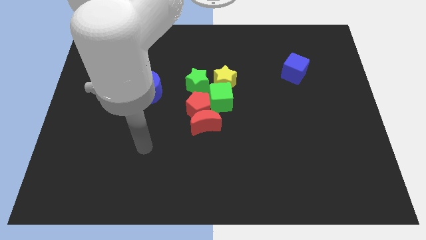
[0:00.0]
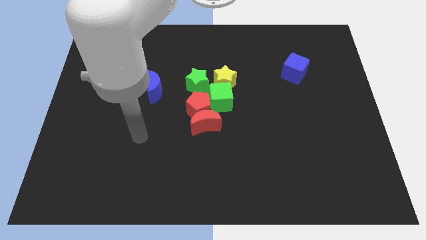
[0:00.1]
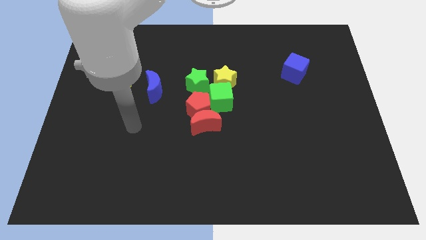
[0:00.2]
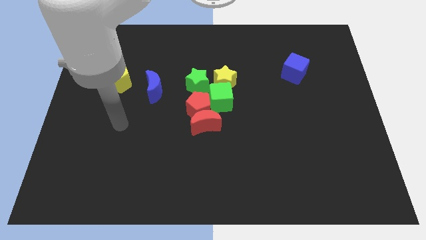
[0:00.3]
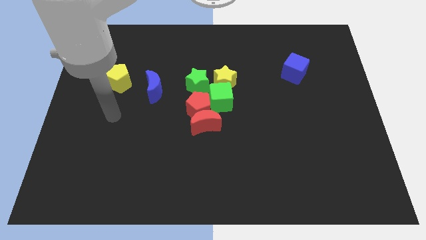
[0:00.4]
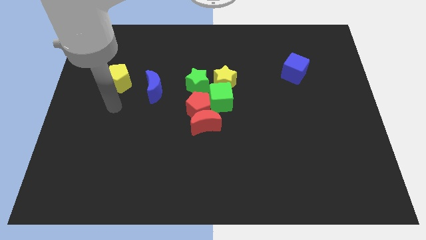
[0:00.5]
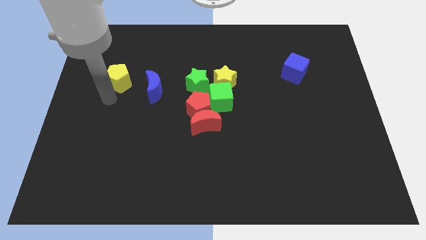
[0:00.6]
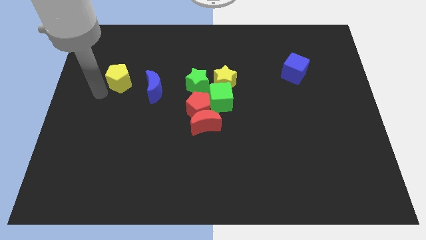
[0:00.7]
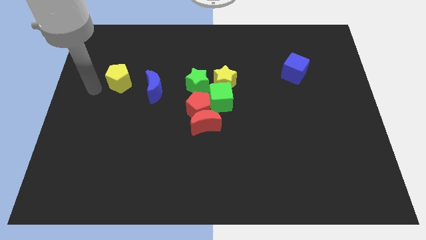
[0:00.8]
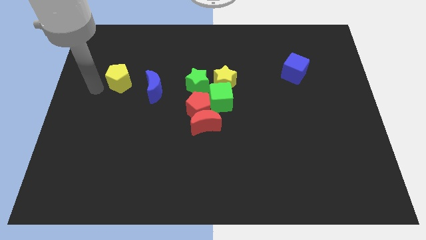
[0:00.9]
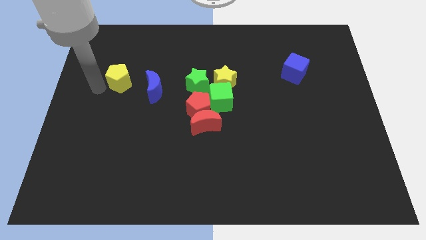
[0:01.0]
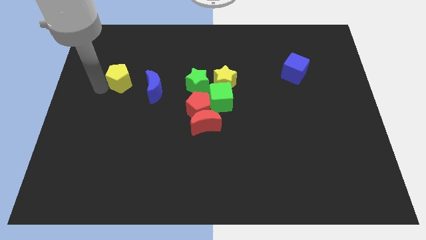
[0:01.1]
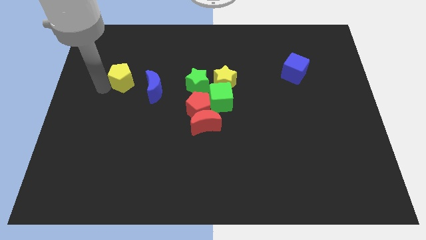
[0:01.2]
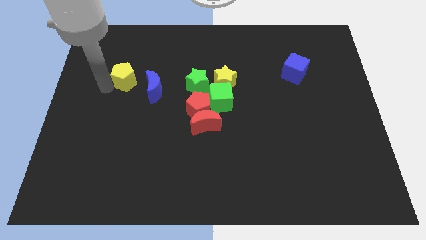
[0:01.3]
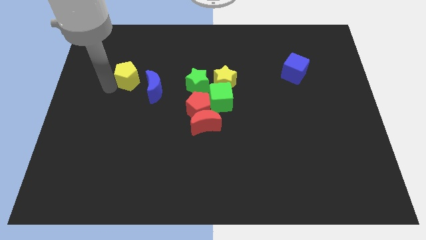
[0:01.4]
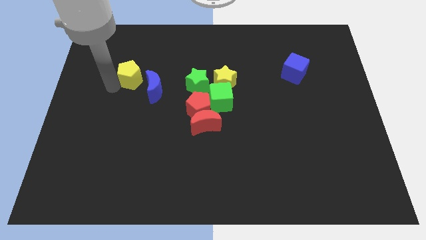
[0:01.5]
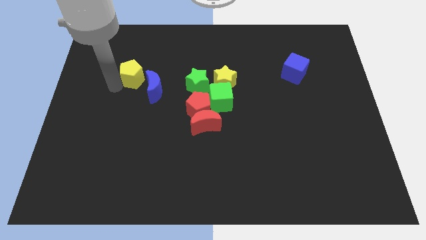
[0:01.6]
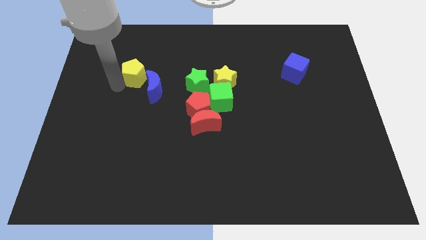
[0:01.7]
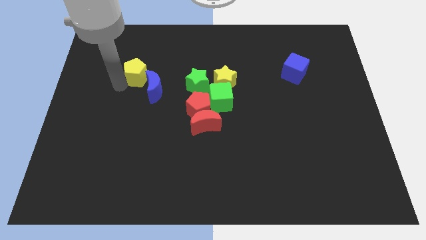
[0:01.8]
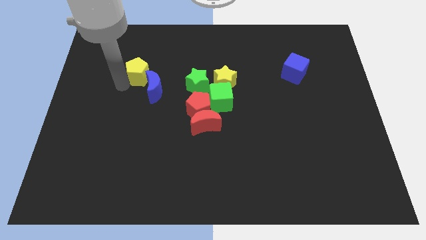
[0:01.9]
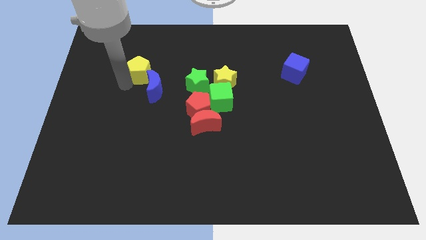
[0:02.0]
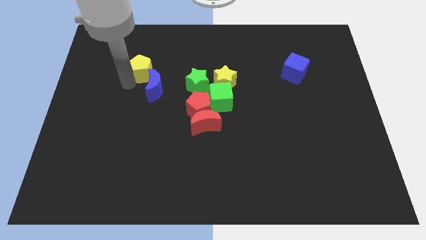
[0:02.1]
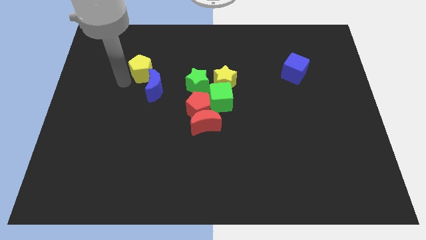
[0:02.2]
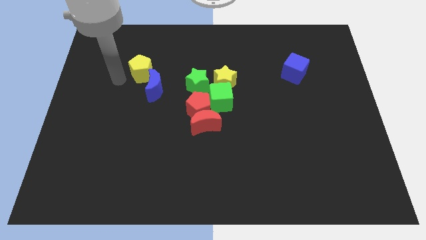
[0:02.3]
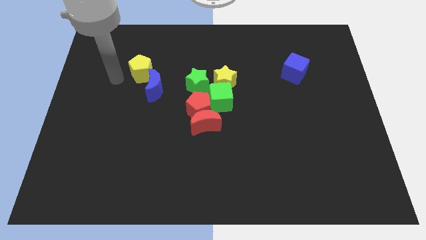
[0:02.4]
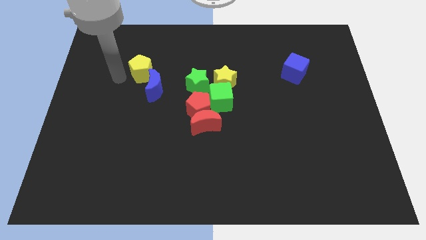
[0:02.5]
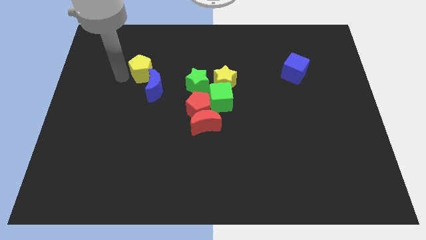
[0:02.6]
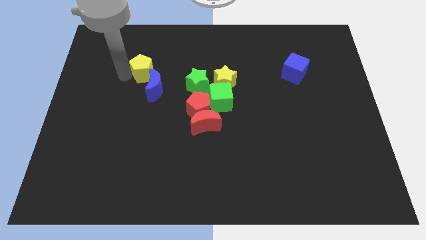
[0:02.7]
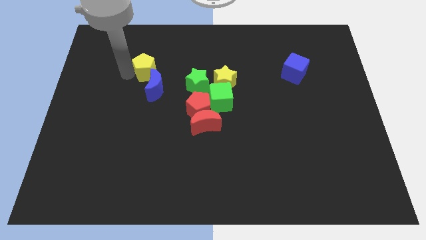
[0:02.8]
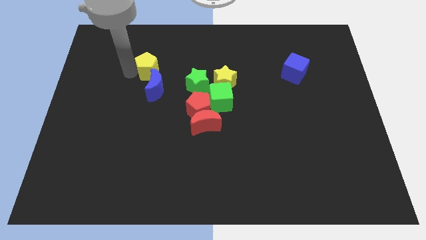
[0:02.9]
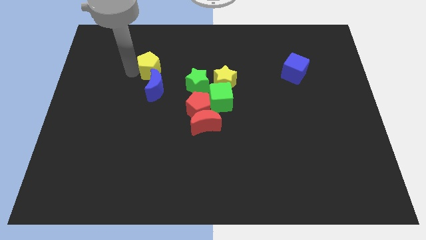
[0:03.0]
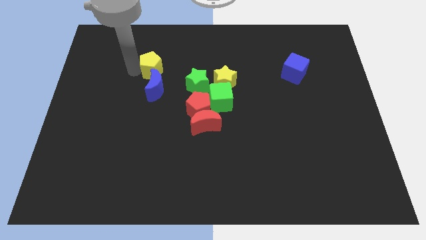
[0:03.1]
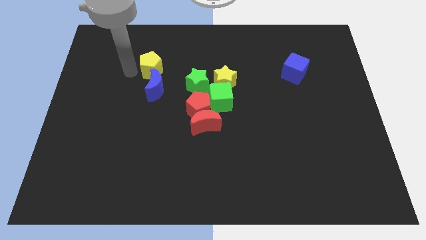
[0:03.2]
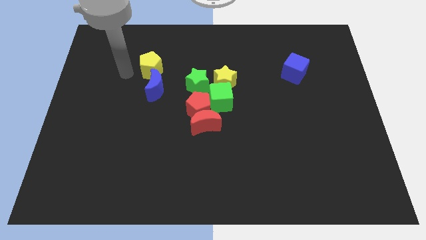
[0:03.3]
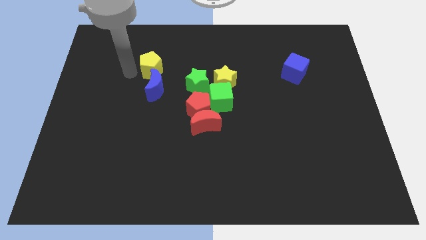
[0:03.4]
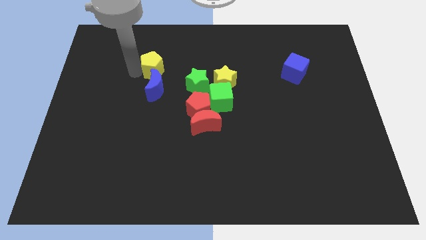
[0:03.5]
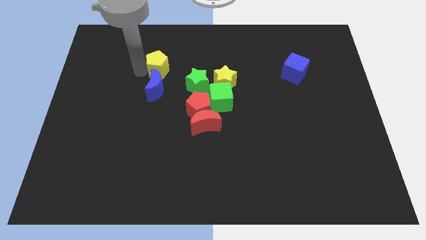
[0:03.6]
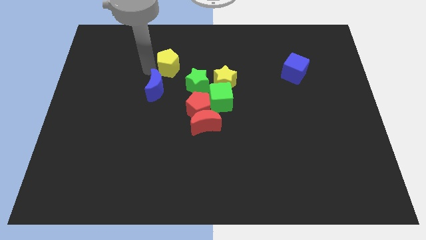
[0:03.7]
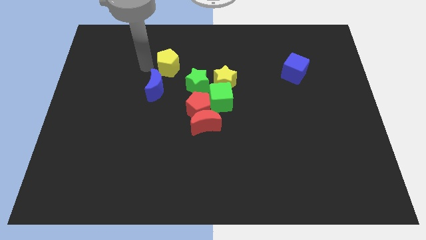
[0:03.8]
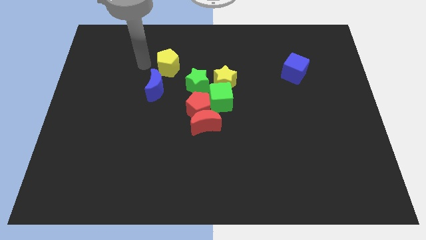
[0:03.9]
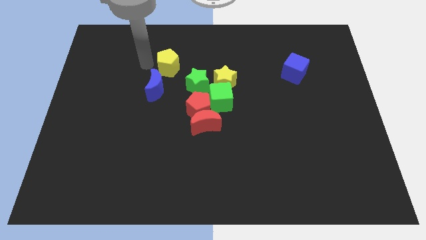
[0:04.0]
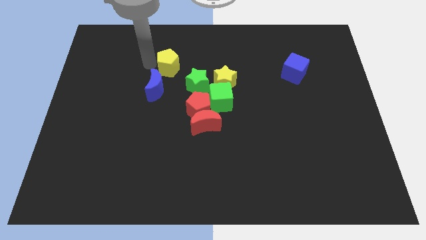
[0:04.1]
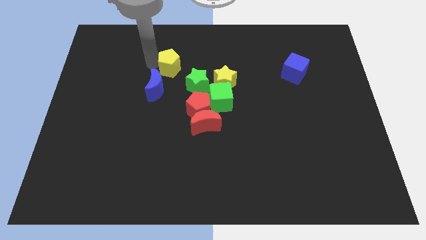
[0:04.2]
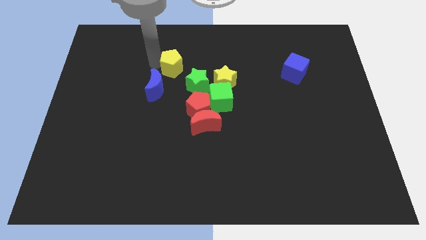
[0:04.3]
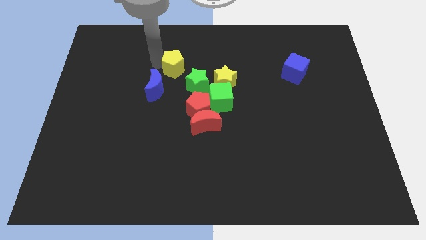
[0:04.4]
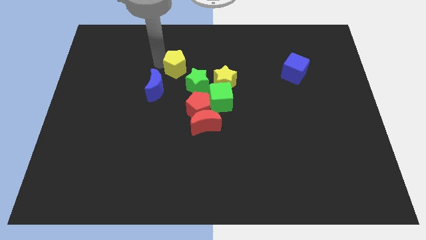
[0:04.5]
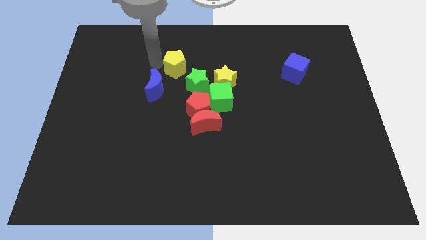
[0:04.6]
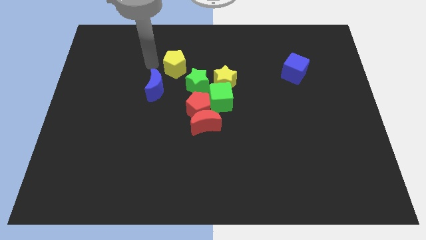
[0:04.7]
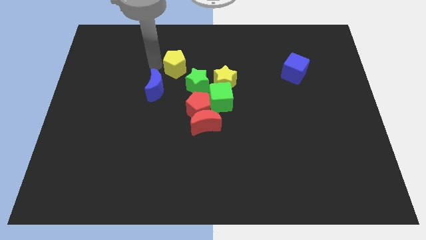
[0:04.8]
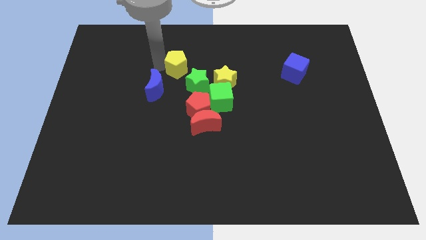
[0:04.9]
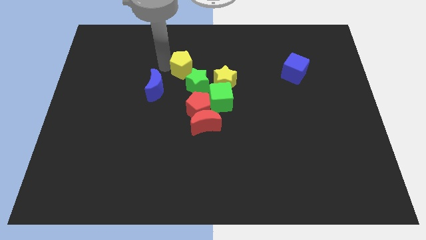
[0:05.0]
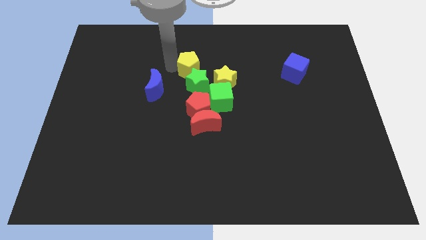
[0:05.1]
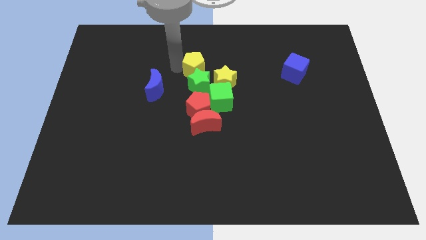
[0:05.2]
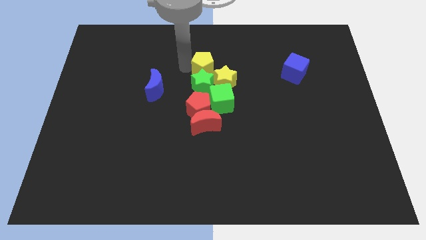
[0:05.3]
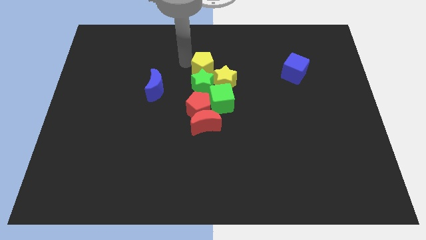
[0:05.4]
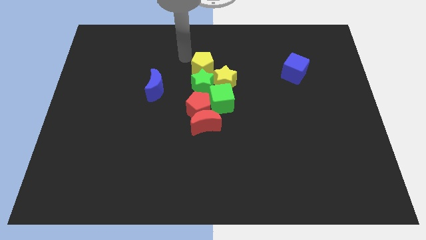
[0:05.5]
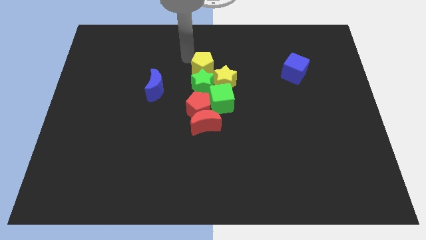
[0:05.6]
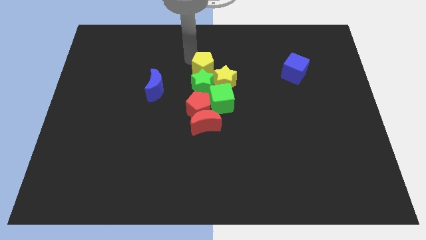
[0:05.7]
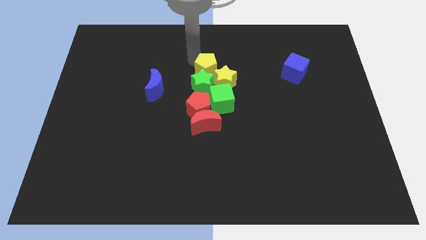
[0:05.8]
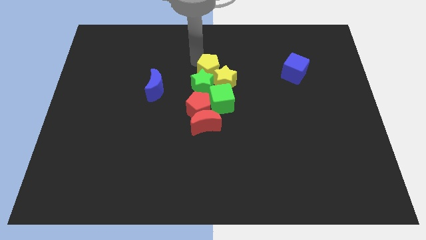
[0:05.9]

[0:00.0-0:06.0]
put the yellow pentagon to the yellow star

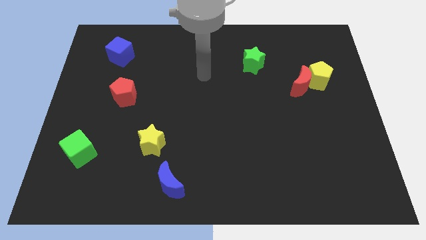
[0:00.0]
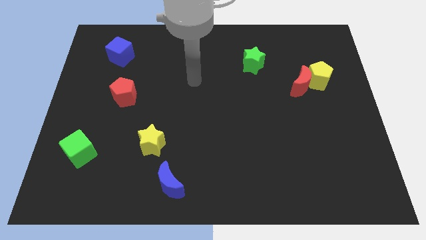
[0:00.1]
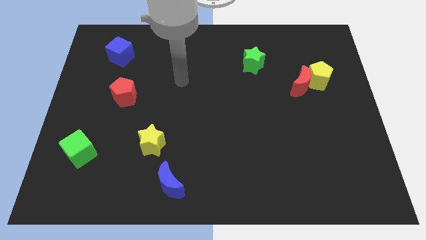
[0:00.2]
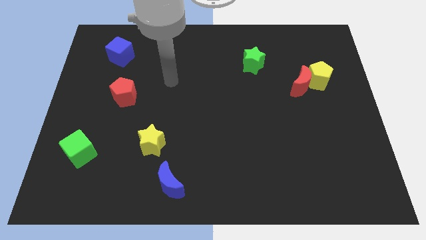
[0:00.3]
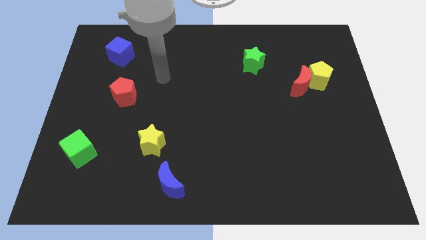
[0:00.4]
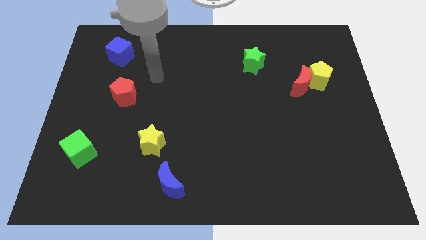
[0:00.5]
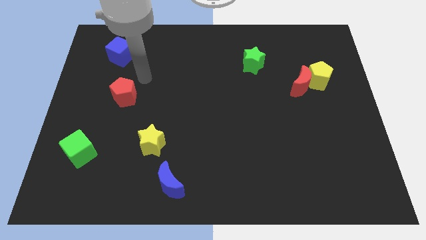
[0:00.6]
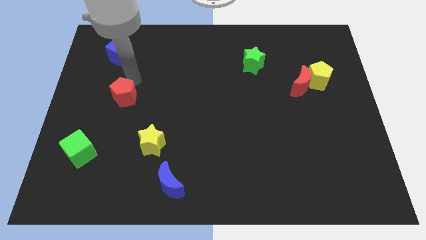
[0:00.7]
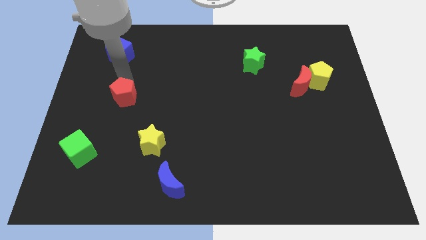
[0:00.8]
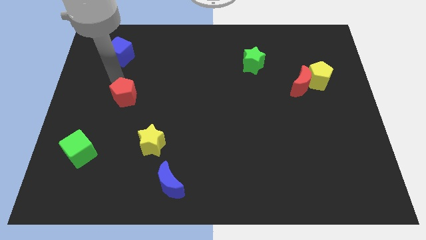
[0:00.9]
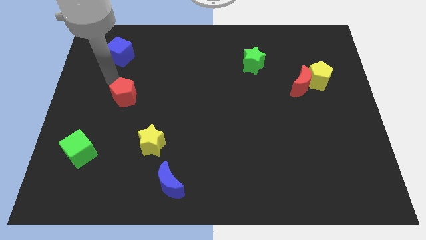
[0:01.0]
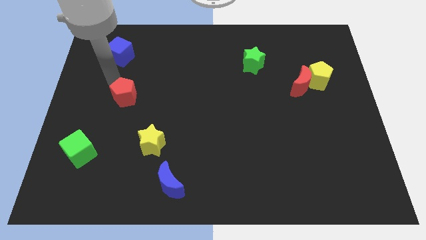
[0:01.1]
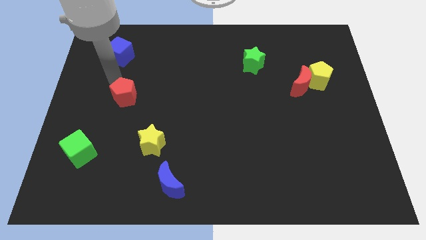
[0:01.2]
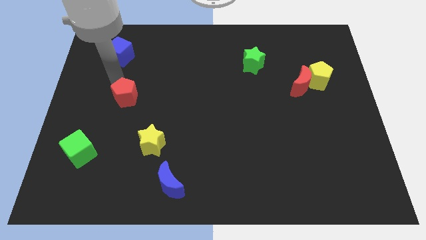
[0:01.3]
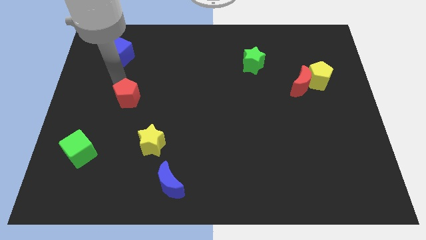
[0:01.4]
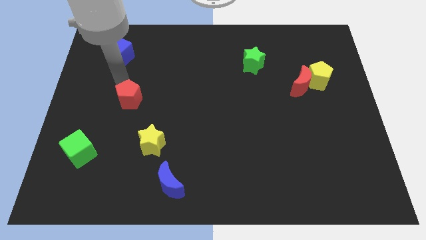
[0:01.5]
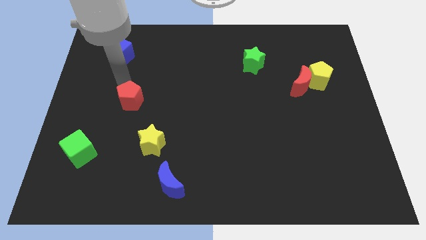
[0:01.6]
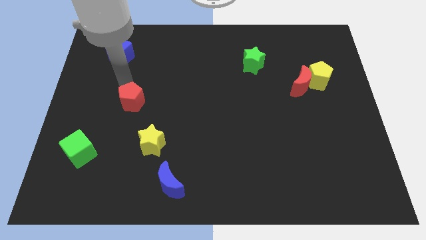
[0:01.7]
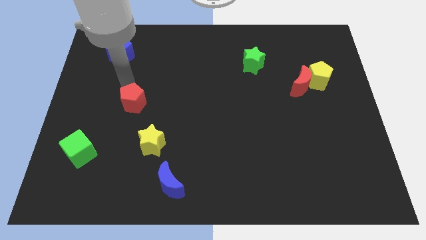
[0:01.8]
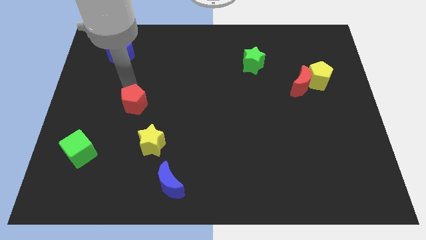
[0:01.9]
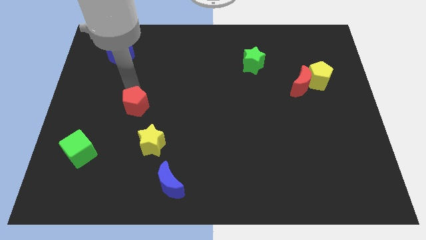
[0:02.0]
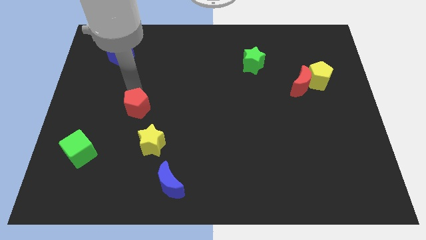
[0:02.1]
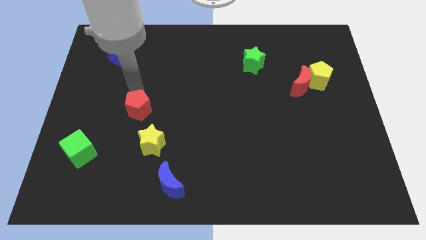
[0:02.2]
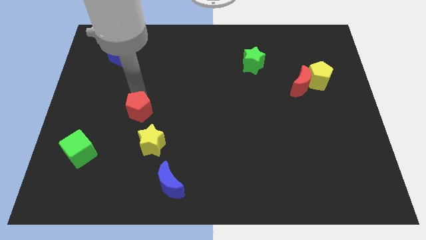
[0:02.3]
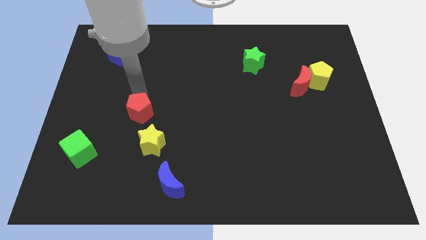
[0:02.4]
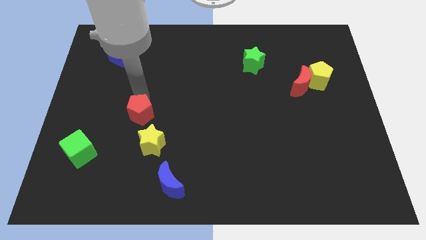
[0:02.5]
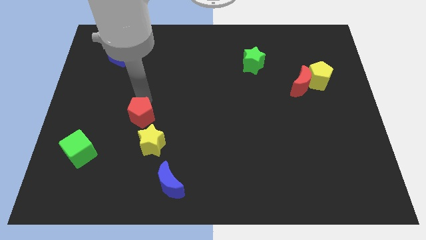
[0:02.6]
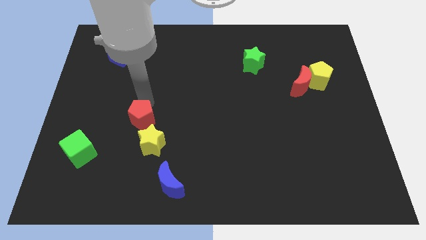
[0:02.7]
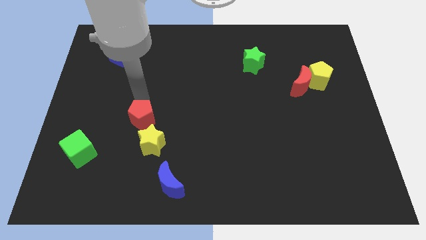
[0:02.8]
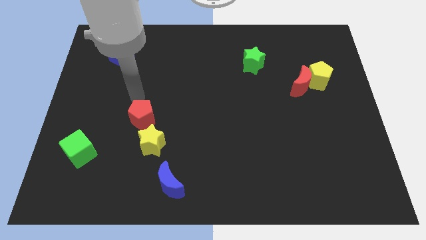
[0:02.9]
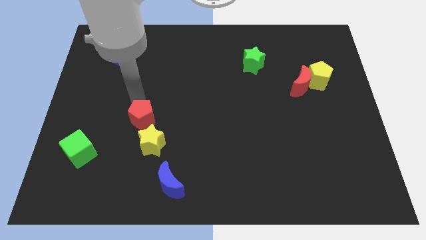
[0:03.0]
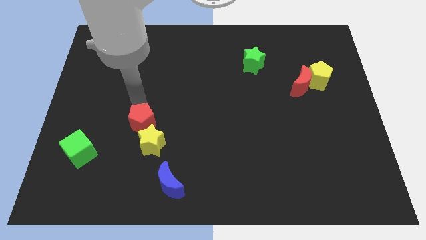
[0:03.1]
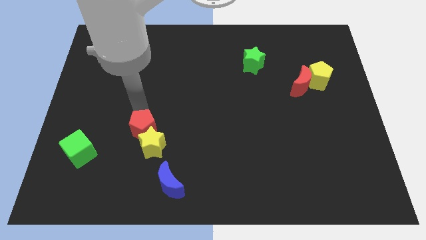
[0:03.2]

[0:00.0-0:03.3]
put the red pentagon close to the yellow star
